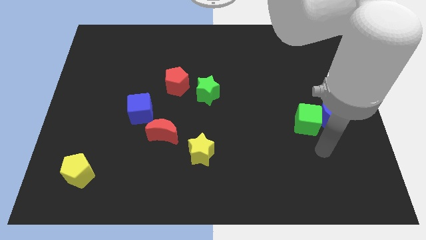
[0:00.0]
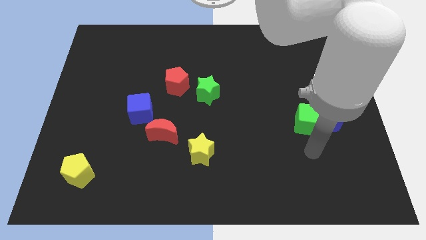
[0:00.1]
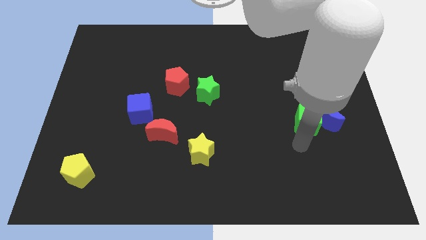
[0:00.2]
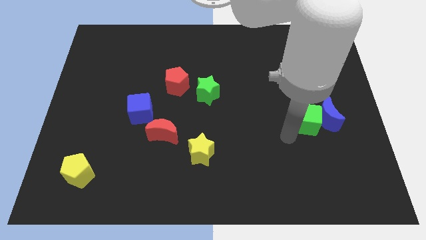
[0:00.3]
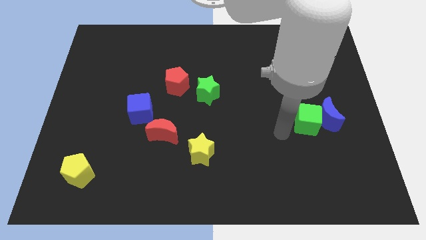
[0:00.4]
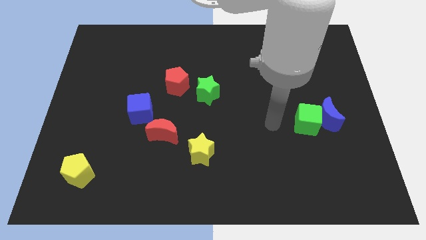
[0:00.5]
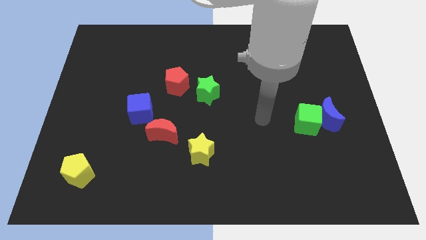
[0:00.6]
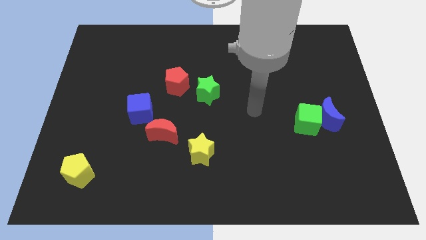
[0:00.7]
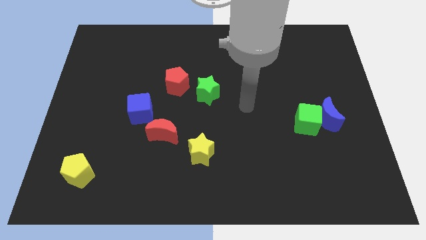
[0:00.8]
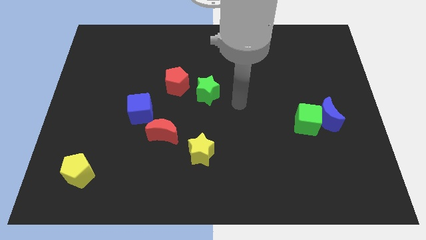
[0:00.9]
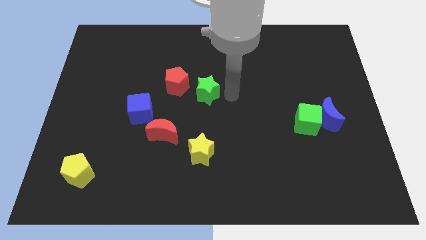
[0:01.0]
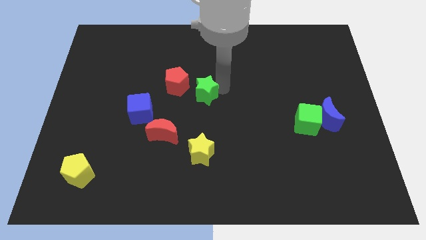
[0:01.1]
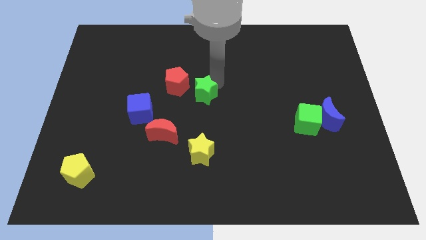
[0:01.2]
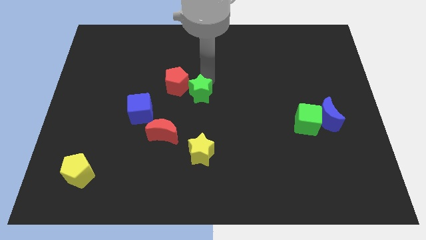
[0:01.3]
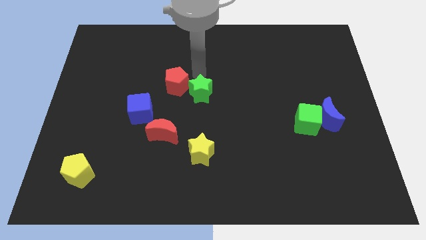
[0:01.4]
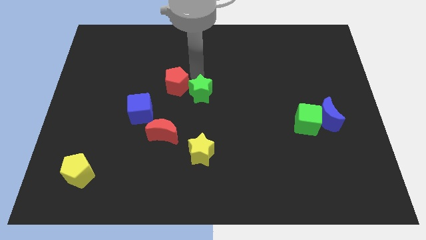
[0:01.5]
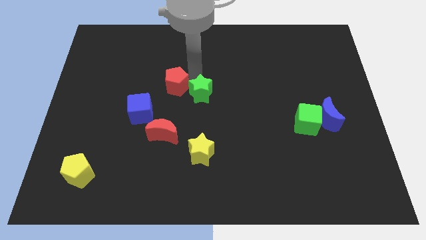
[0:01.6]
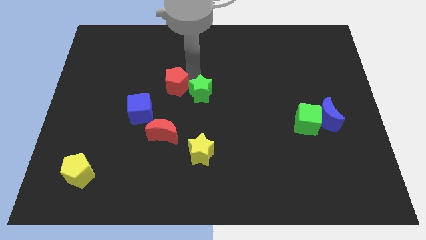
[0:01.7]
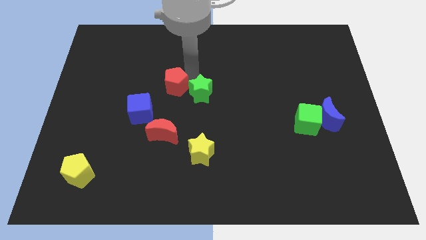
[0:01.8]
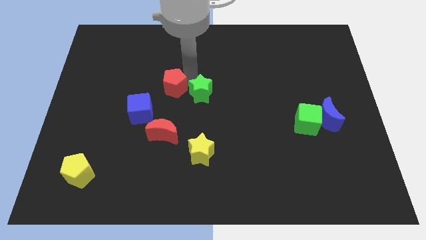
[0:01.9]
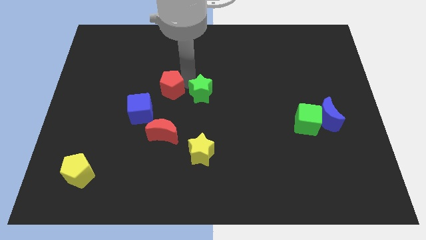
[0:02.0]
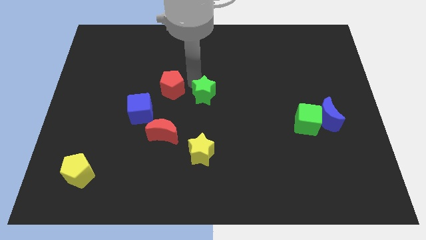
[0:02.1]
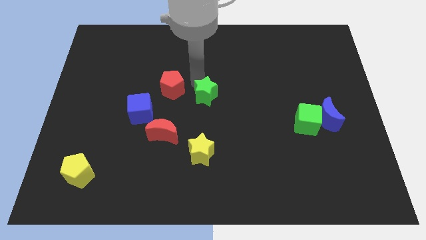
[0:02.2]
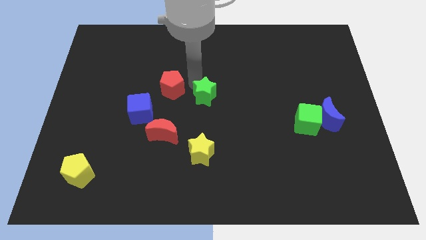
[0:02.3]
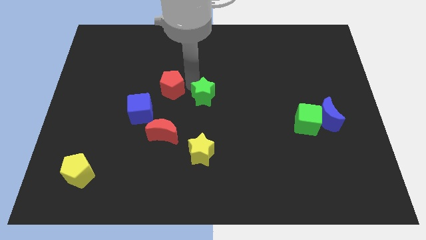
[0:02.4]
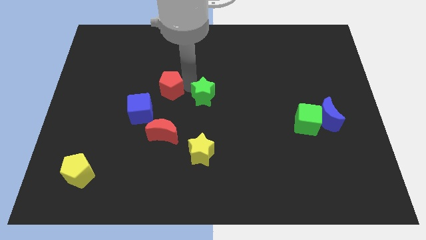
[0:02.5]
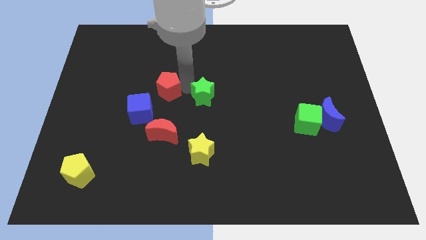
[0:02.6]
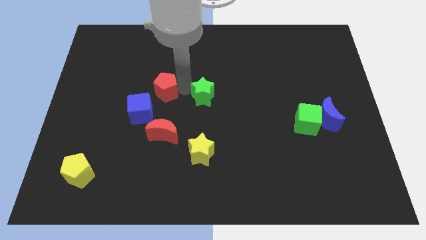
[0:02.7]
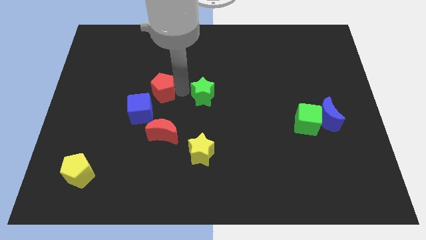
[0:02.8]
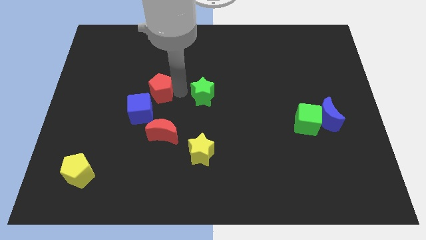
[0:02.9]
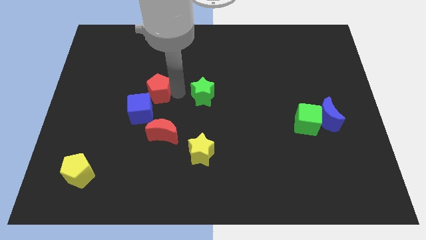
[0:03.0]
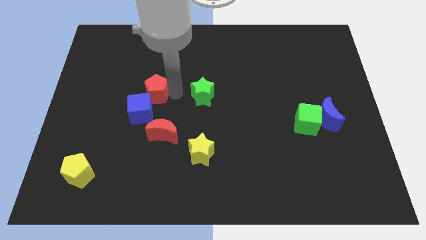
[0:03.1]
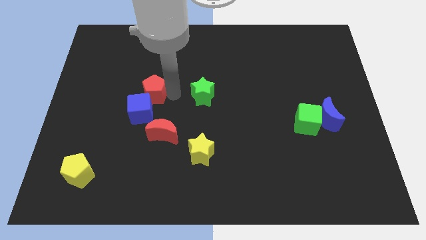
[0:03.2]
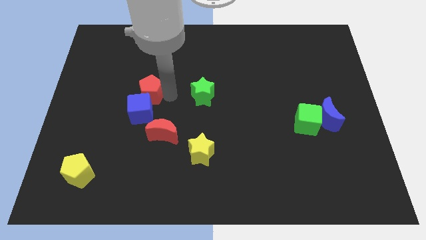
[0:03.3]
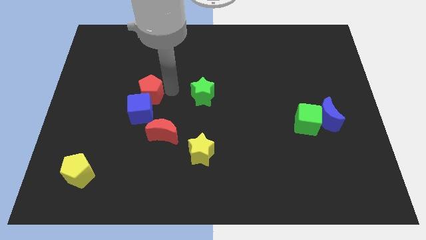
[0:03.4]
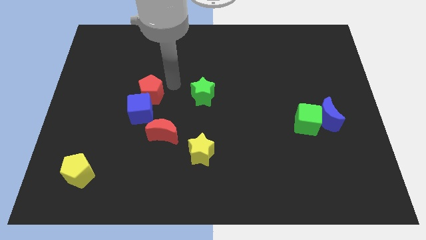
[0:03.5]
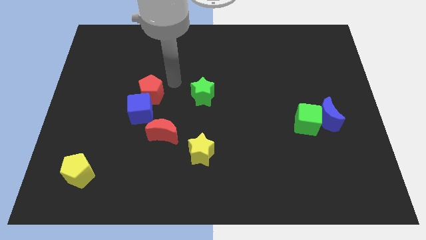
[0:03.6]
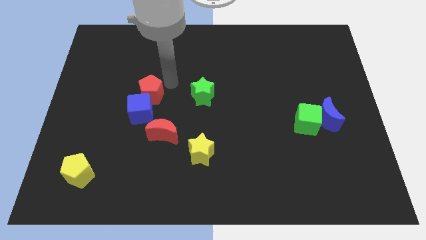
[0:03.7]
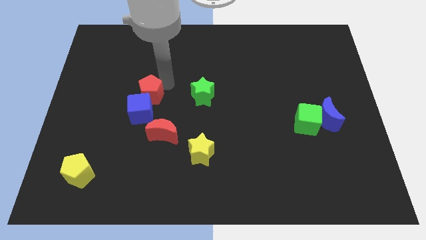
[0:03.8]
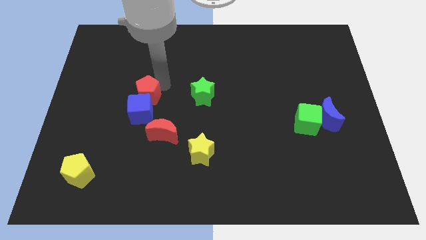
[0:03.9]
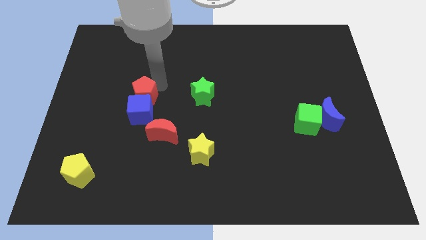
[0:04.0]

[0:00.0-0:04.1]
slightly move the red pentagon downwards and to the left

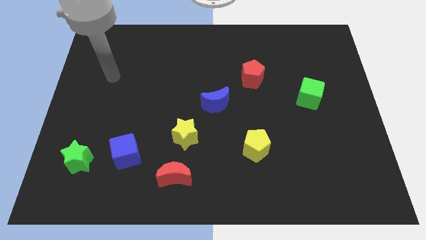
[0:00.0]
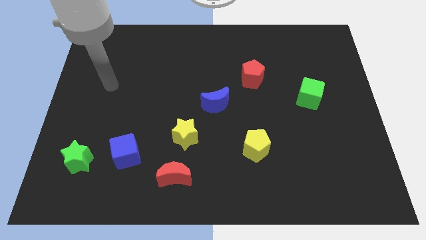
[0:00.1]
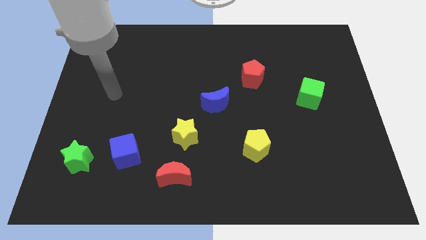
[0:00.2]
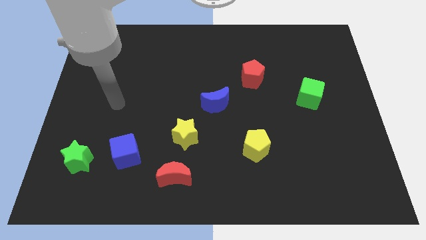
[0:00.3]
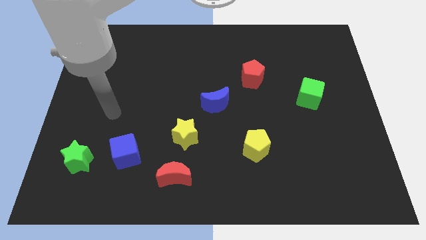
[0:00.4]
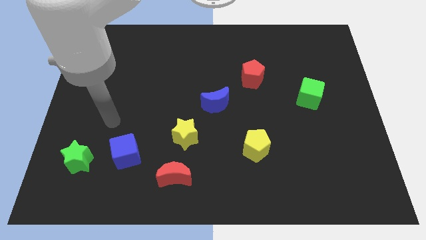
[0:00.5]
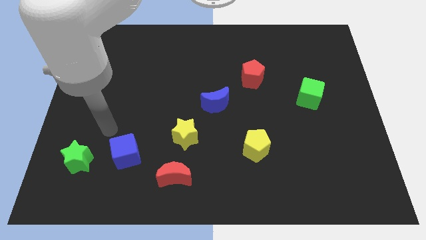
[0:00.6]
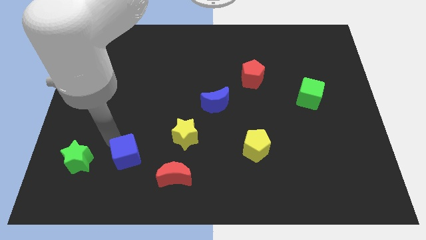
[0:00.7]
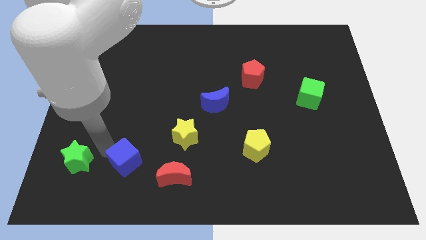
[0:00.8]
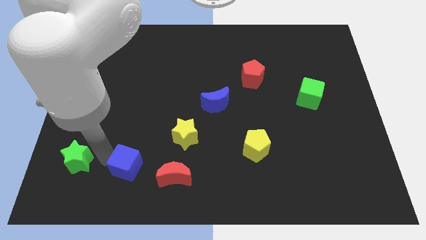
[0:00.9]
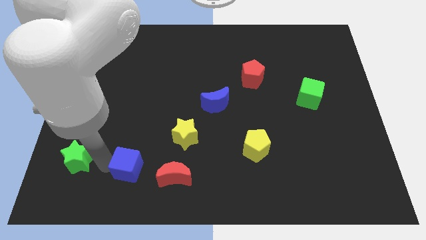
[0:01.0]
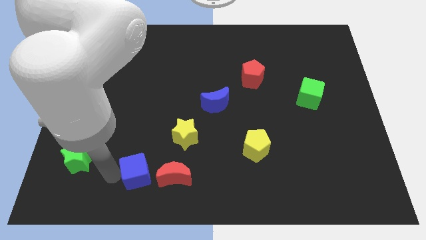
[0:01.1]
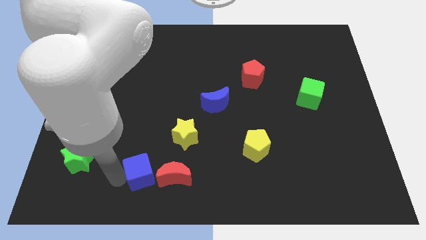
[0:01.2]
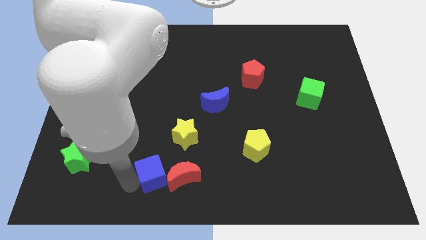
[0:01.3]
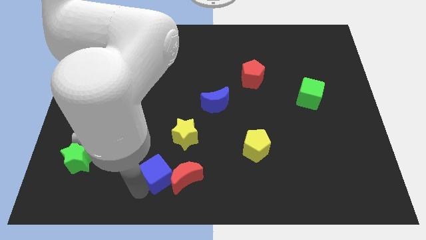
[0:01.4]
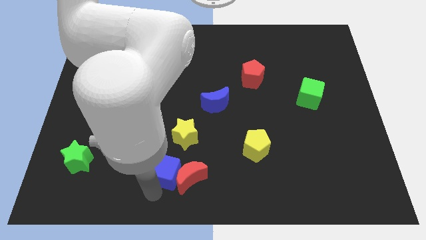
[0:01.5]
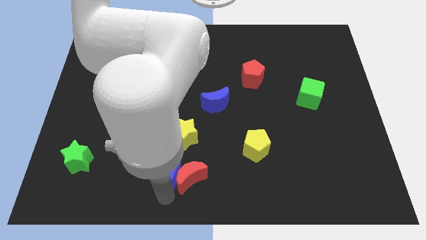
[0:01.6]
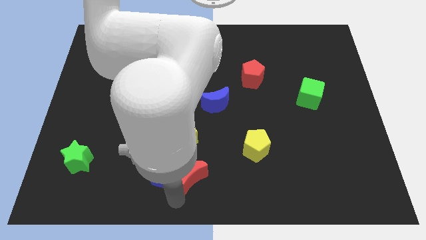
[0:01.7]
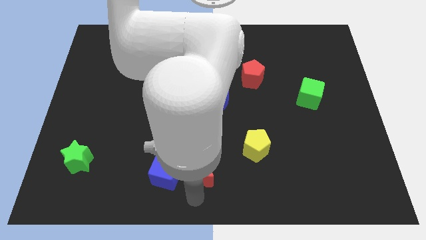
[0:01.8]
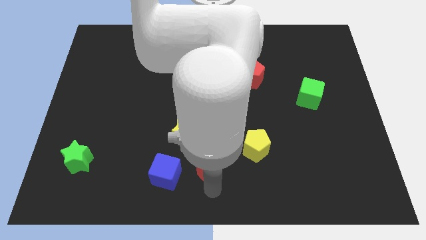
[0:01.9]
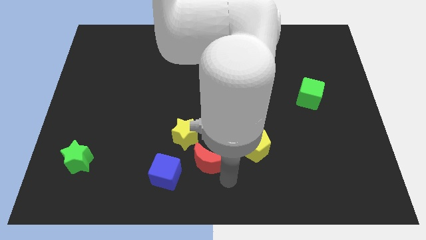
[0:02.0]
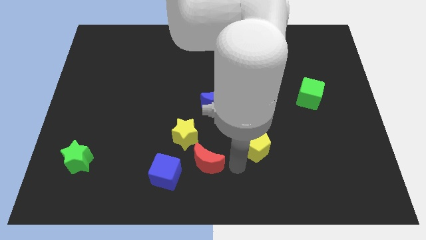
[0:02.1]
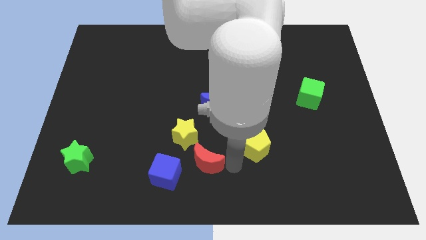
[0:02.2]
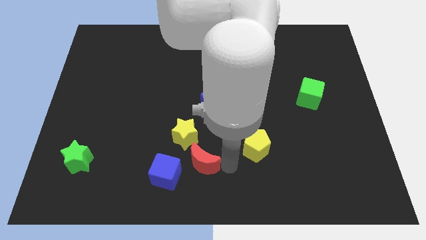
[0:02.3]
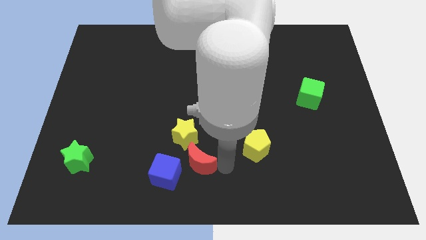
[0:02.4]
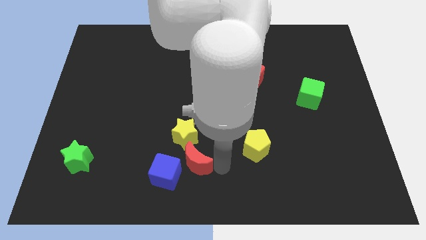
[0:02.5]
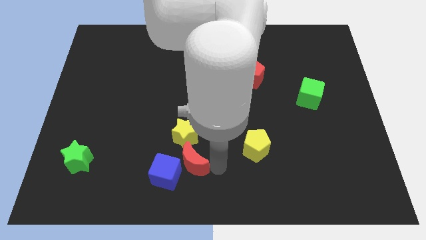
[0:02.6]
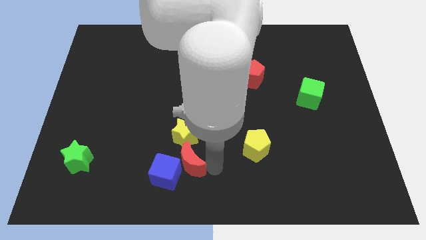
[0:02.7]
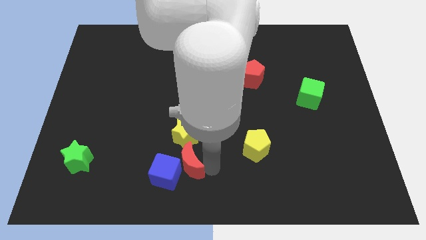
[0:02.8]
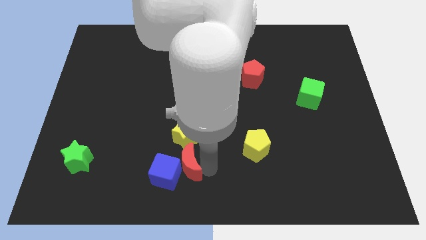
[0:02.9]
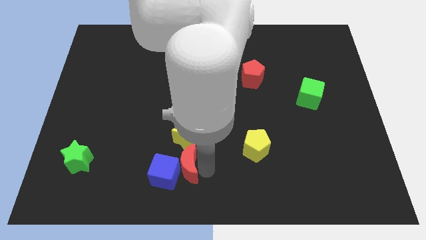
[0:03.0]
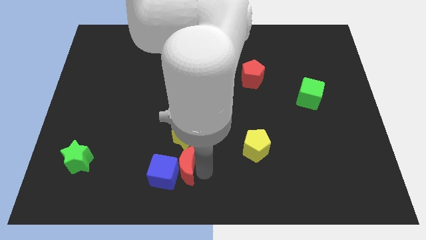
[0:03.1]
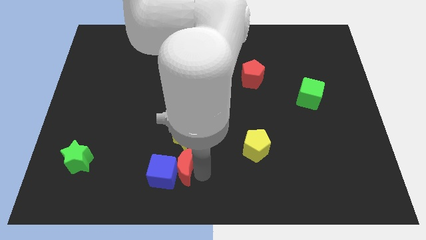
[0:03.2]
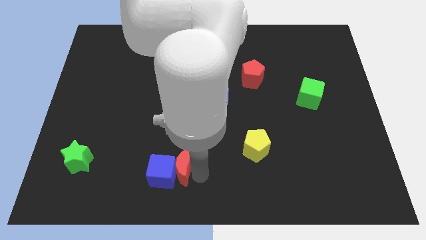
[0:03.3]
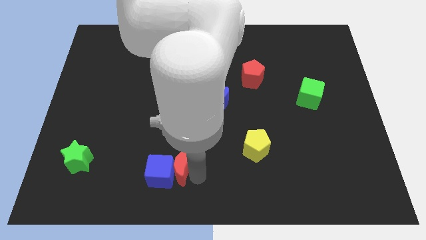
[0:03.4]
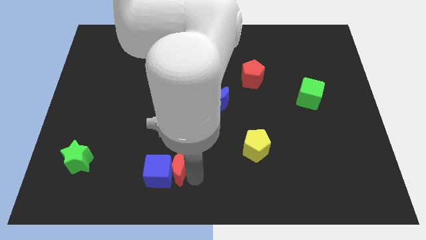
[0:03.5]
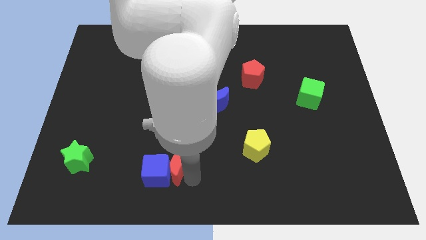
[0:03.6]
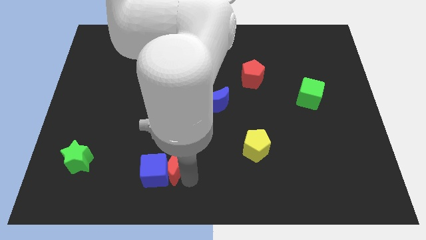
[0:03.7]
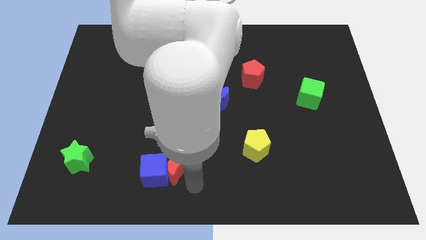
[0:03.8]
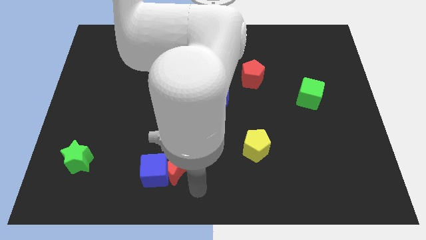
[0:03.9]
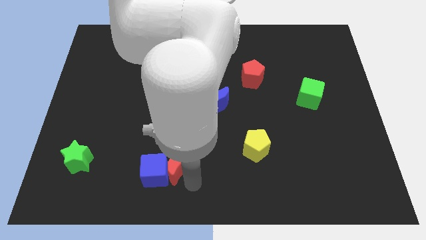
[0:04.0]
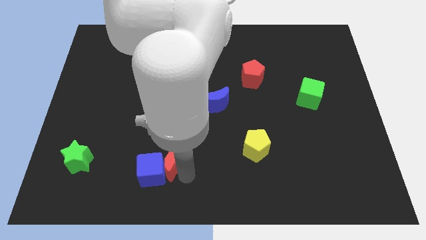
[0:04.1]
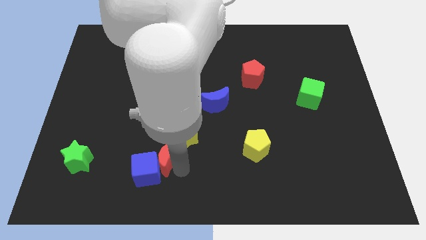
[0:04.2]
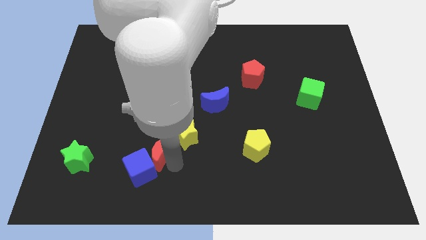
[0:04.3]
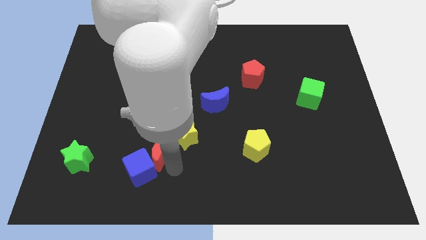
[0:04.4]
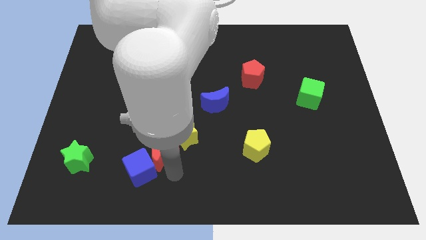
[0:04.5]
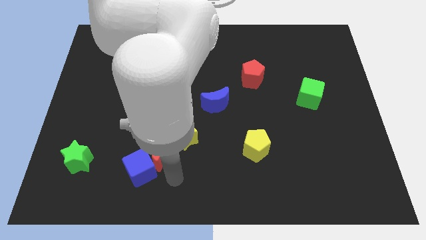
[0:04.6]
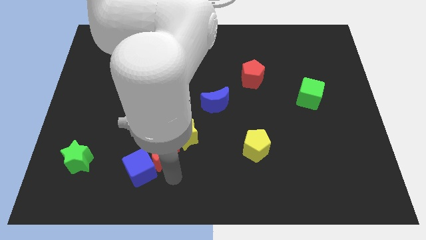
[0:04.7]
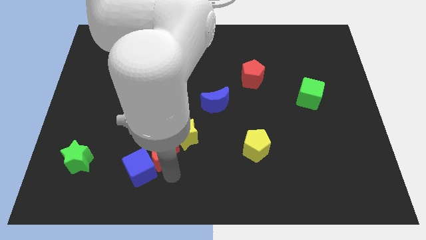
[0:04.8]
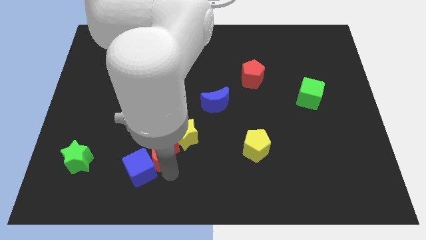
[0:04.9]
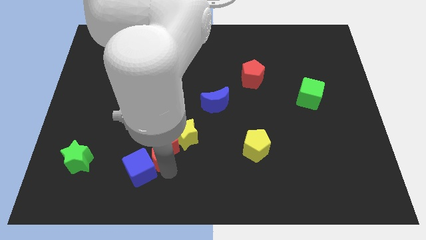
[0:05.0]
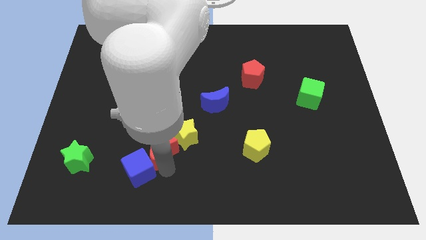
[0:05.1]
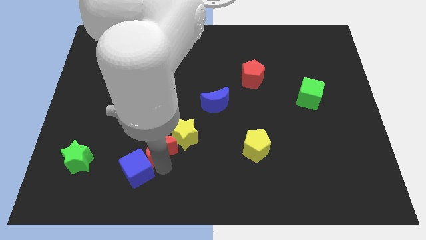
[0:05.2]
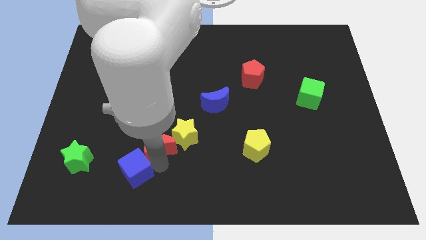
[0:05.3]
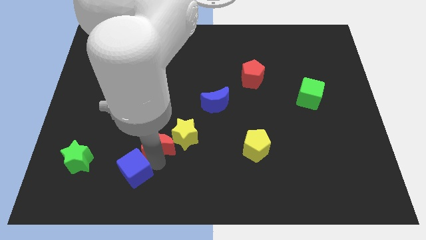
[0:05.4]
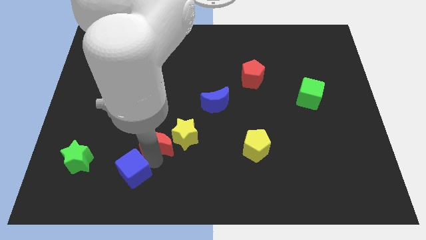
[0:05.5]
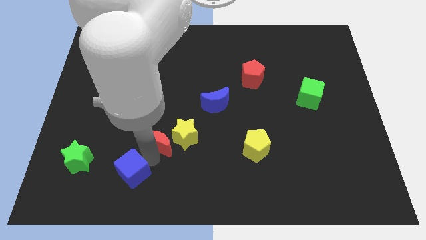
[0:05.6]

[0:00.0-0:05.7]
slightly slide the red moon upwards
